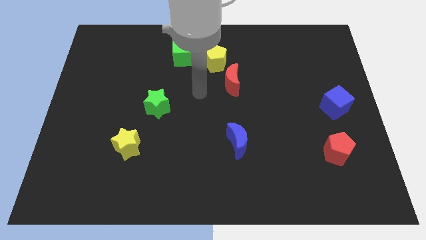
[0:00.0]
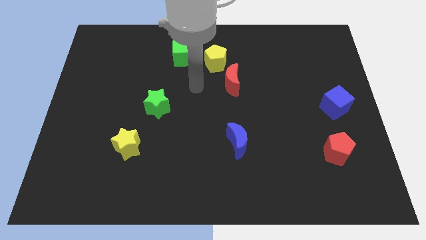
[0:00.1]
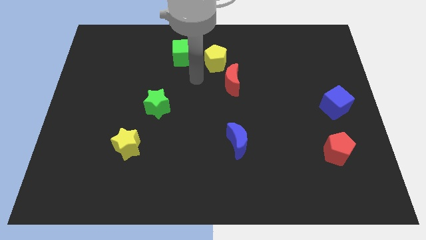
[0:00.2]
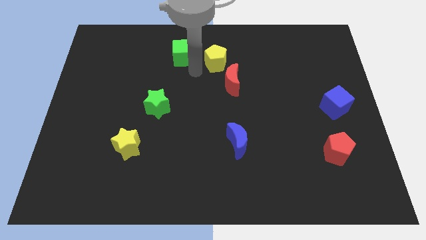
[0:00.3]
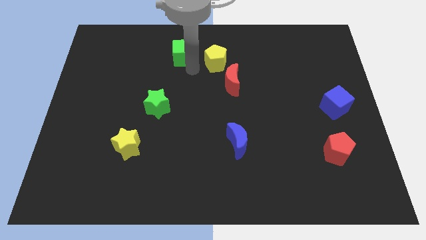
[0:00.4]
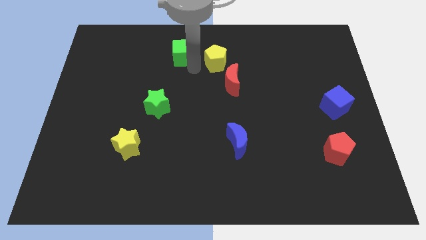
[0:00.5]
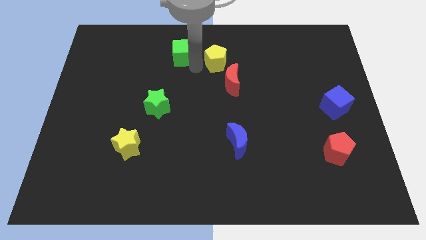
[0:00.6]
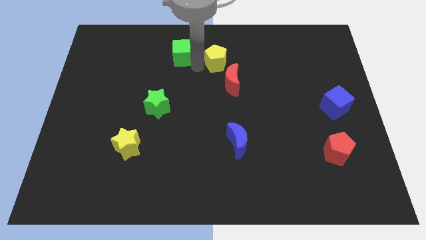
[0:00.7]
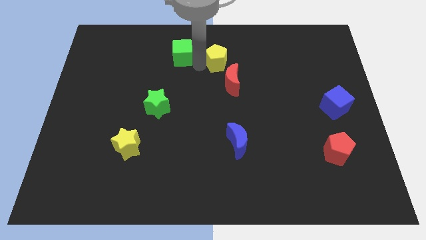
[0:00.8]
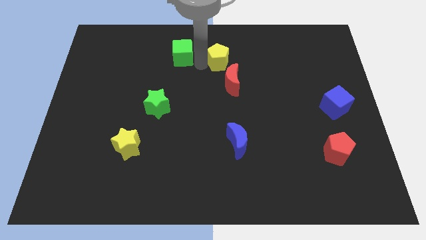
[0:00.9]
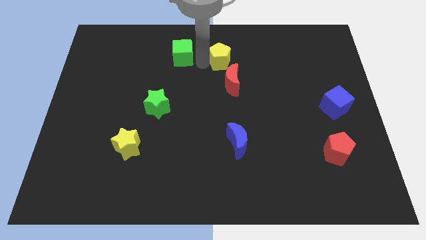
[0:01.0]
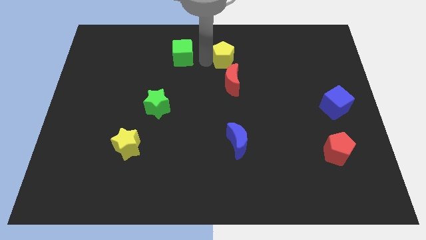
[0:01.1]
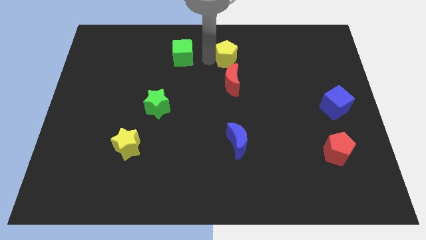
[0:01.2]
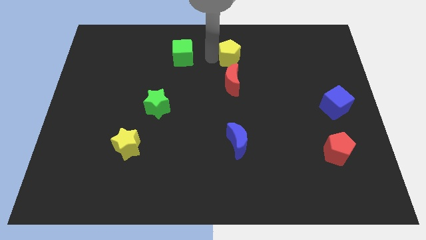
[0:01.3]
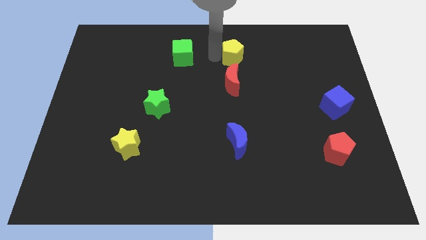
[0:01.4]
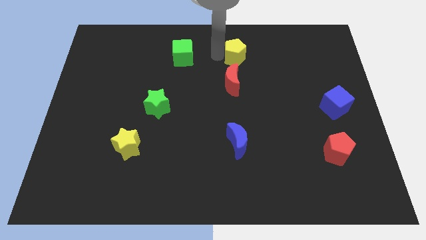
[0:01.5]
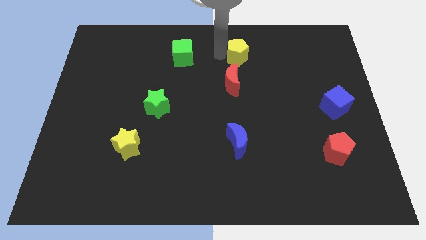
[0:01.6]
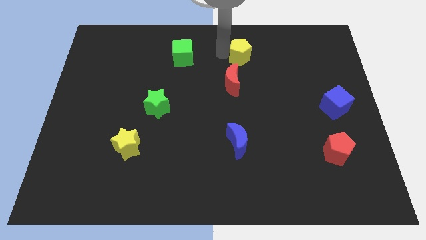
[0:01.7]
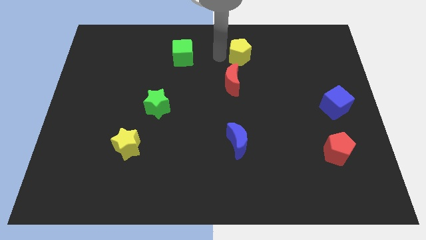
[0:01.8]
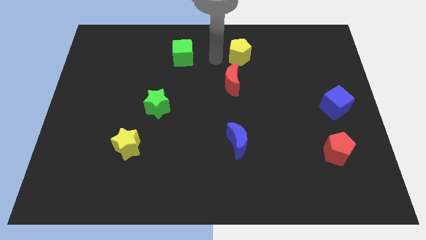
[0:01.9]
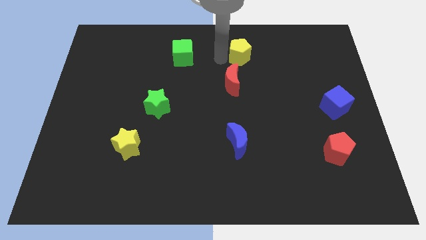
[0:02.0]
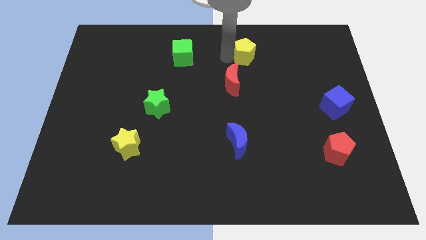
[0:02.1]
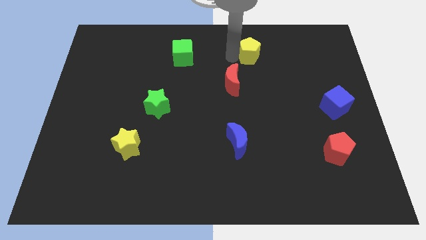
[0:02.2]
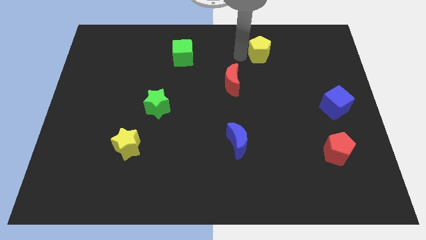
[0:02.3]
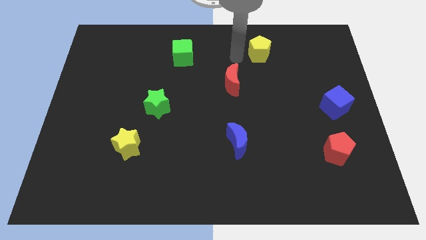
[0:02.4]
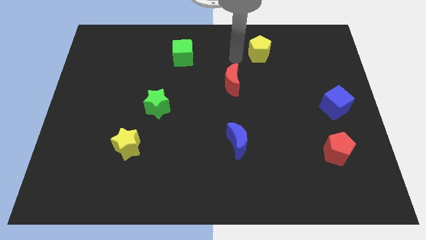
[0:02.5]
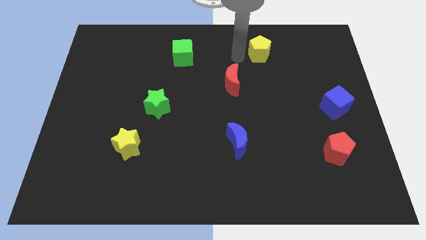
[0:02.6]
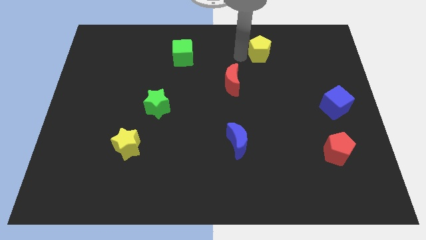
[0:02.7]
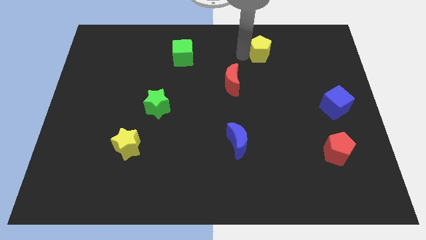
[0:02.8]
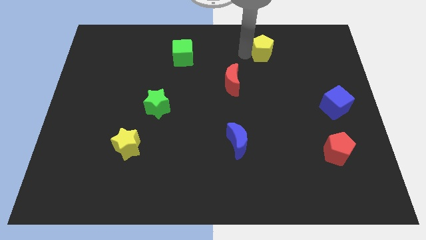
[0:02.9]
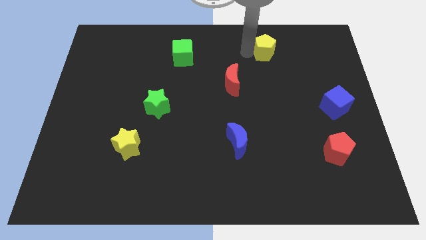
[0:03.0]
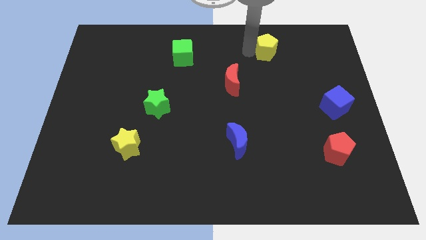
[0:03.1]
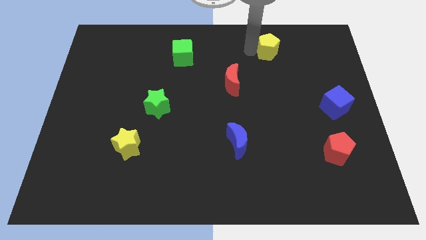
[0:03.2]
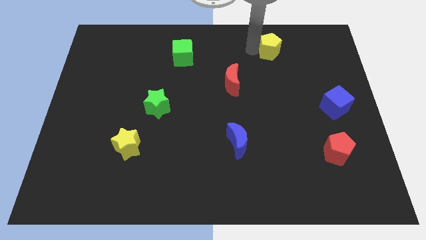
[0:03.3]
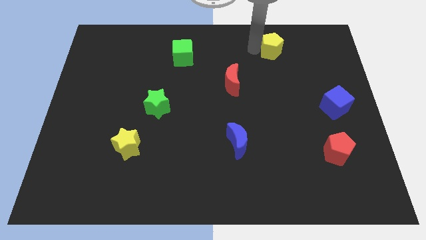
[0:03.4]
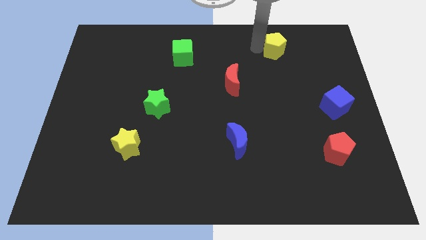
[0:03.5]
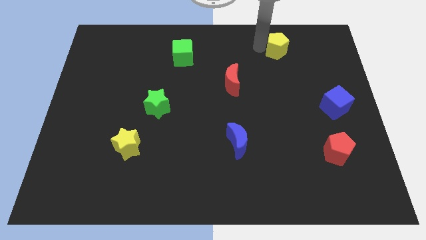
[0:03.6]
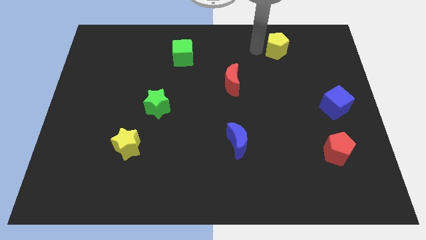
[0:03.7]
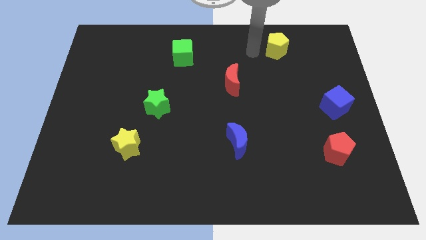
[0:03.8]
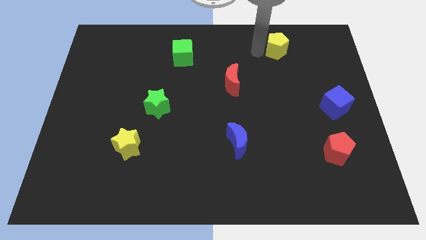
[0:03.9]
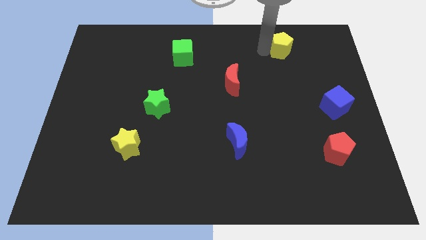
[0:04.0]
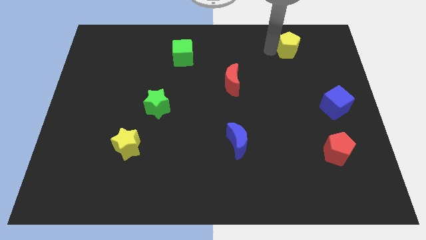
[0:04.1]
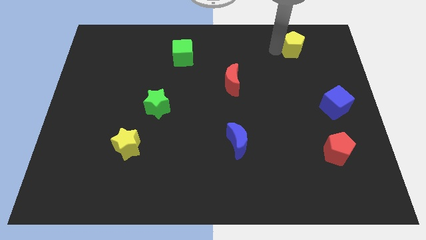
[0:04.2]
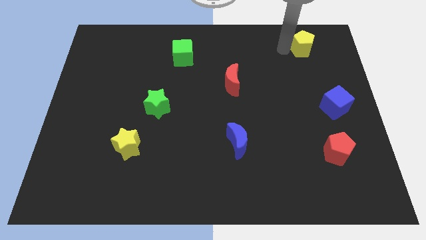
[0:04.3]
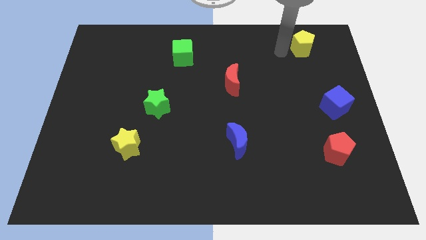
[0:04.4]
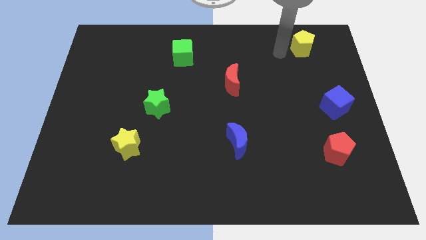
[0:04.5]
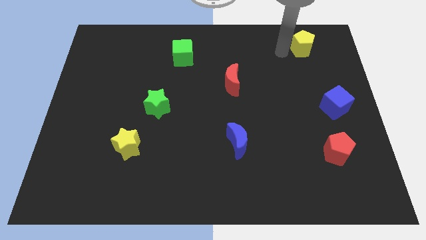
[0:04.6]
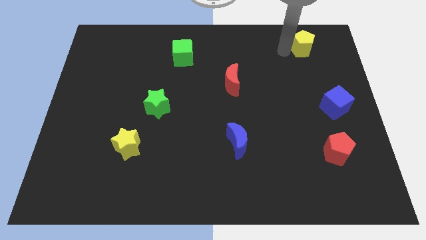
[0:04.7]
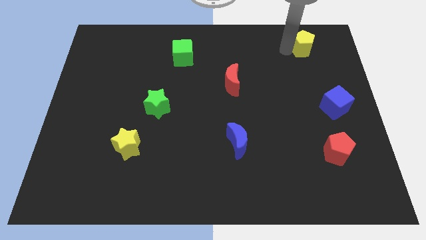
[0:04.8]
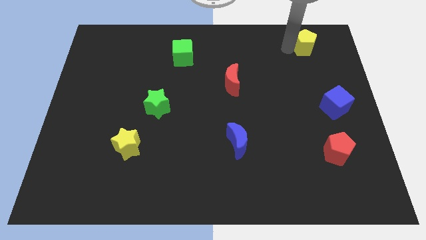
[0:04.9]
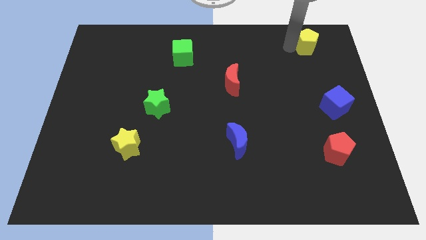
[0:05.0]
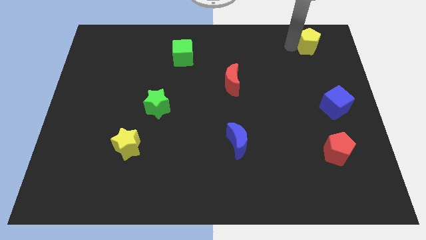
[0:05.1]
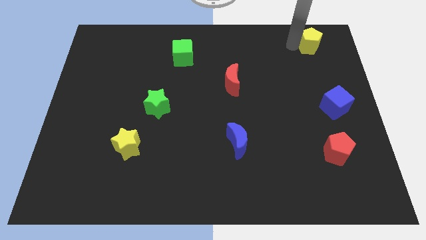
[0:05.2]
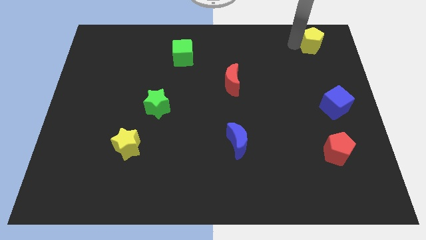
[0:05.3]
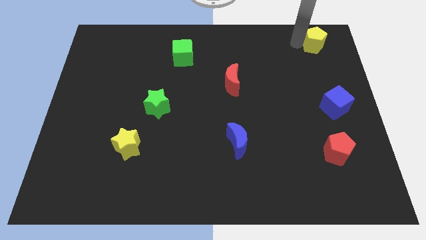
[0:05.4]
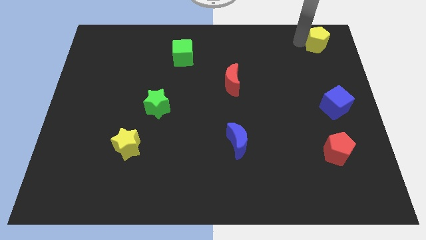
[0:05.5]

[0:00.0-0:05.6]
put the yellow pentagon to the upper right corner

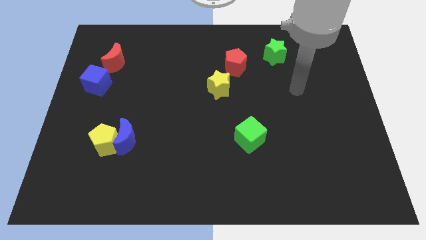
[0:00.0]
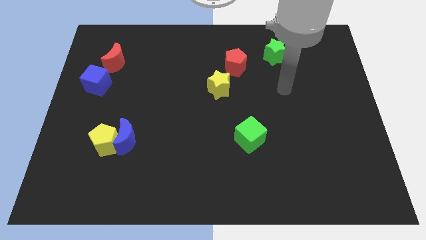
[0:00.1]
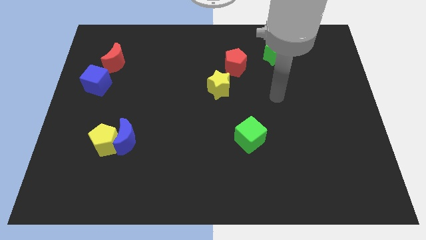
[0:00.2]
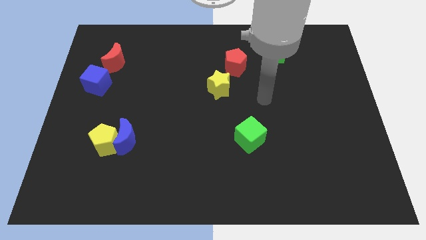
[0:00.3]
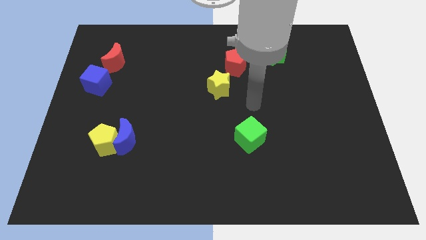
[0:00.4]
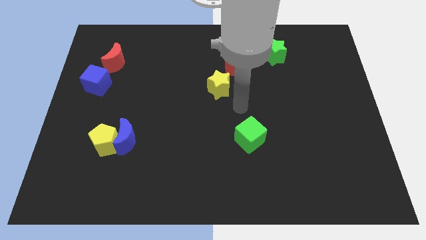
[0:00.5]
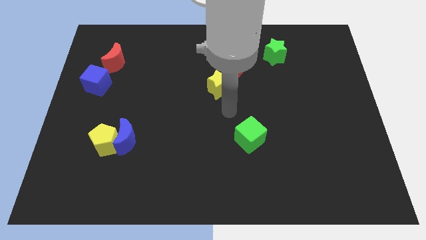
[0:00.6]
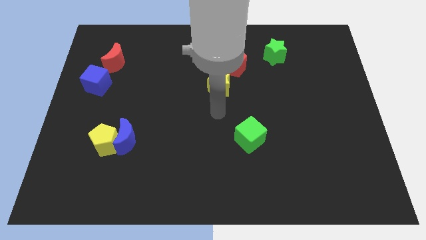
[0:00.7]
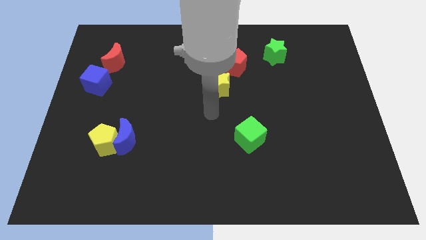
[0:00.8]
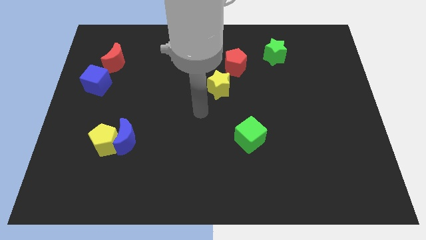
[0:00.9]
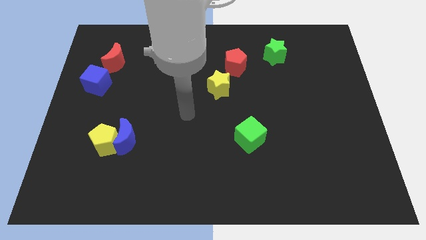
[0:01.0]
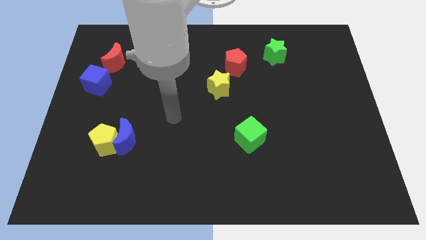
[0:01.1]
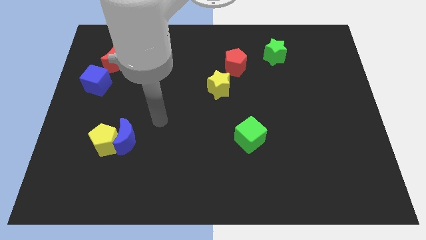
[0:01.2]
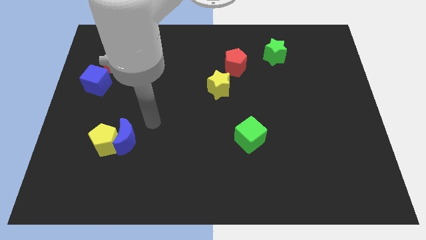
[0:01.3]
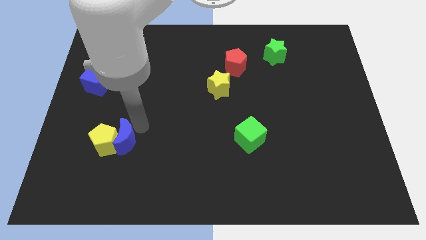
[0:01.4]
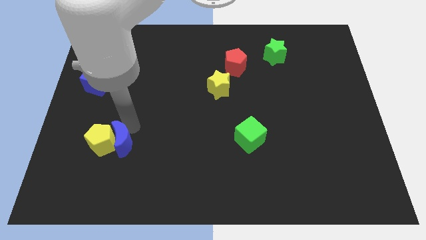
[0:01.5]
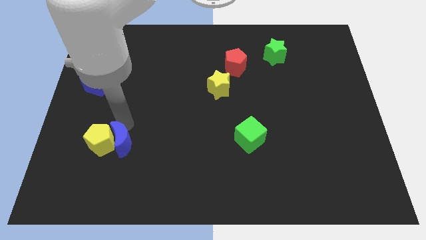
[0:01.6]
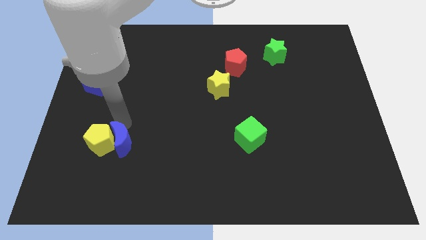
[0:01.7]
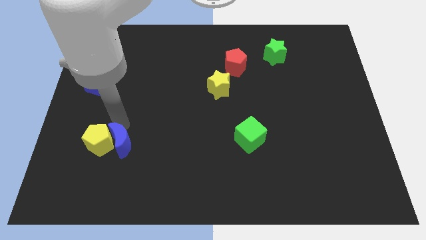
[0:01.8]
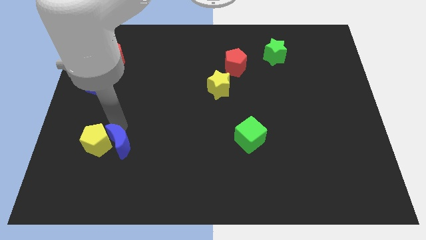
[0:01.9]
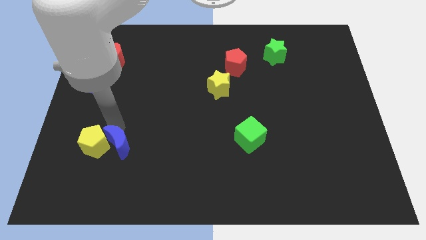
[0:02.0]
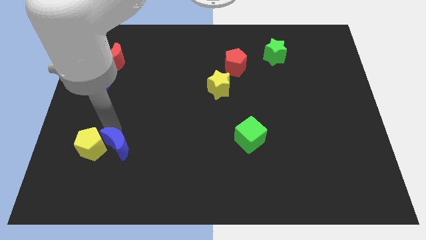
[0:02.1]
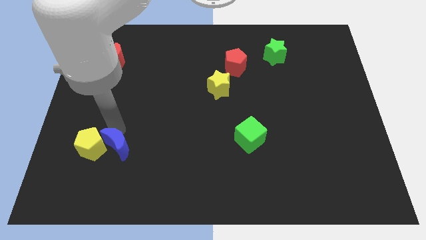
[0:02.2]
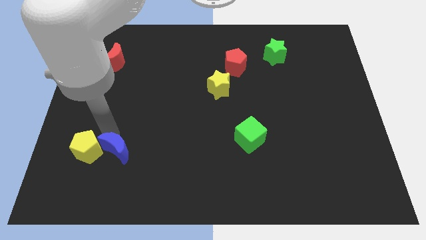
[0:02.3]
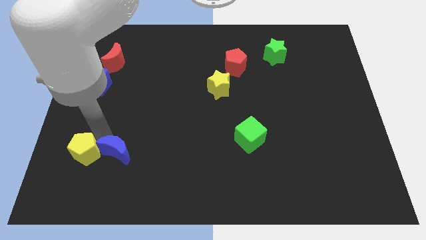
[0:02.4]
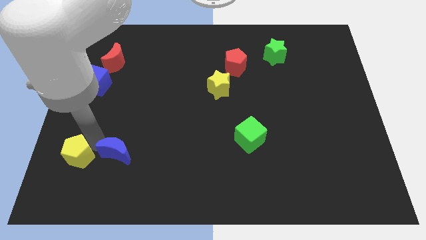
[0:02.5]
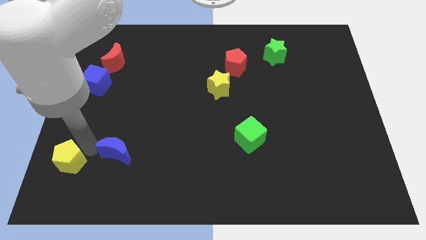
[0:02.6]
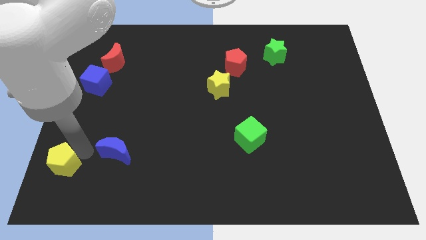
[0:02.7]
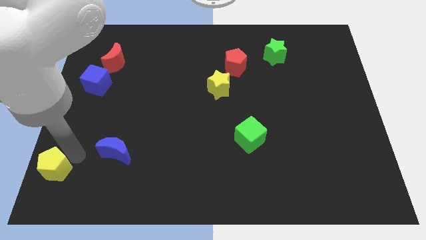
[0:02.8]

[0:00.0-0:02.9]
move the yellow pentagon to the lower left corner
